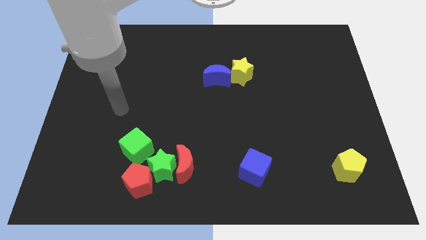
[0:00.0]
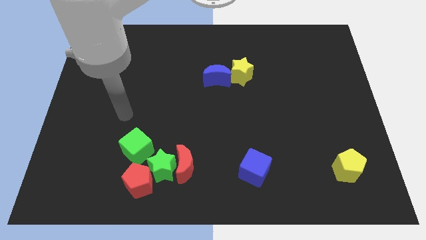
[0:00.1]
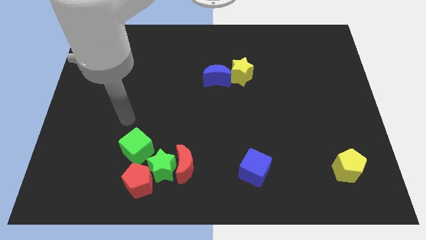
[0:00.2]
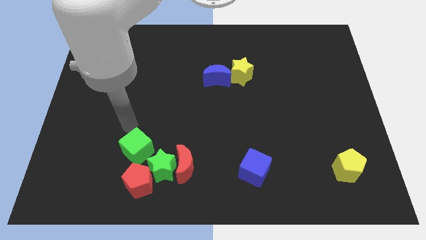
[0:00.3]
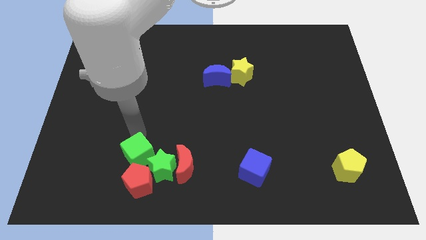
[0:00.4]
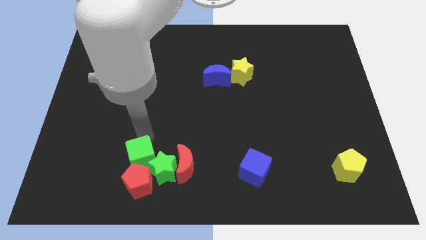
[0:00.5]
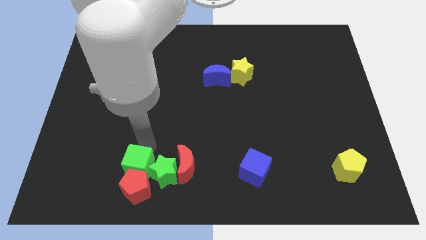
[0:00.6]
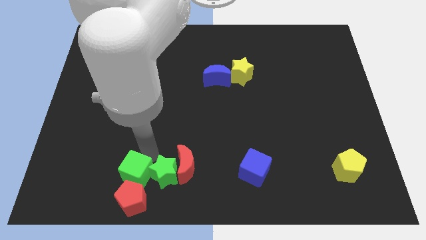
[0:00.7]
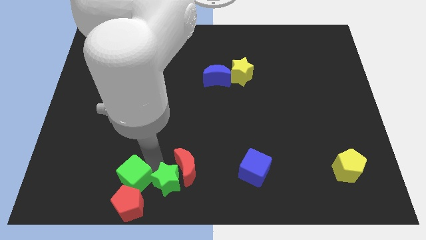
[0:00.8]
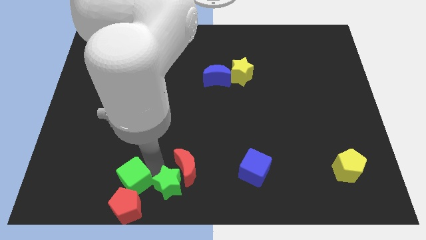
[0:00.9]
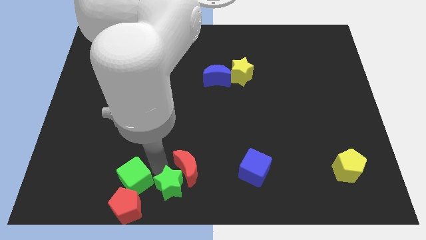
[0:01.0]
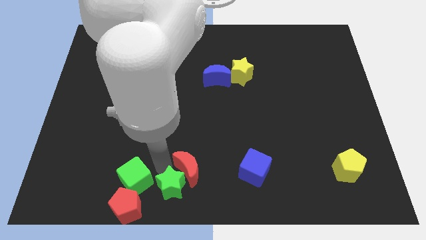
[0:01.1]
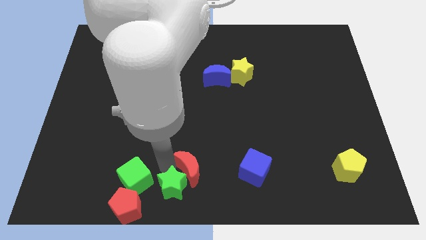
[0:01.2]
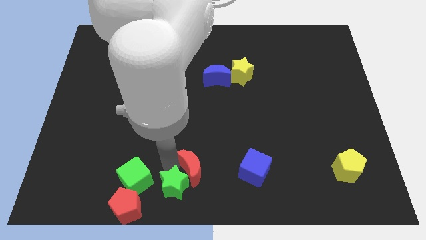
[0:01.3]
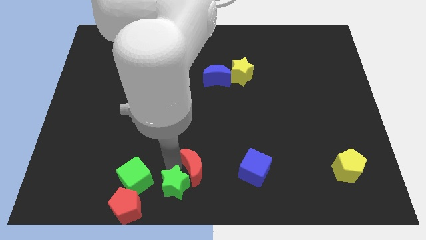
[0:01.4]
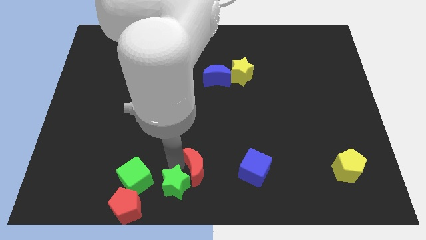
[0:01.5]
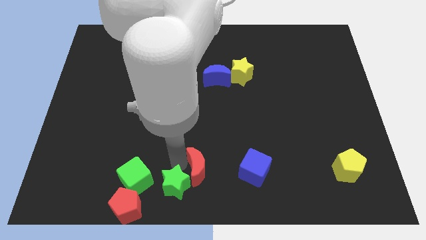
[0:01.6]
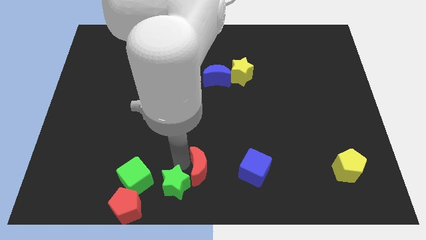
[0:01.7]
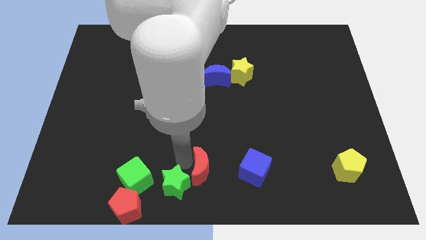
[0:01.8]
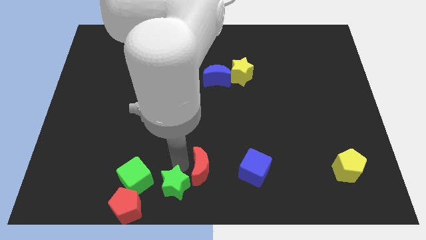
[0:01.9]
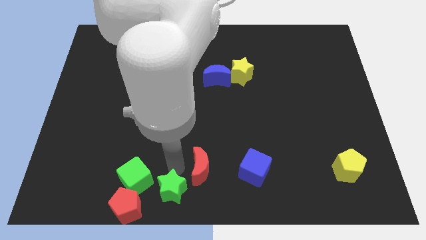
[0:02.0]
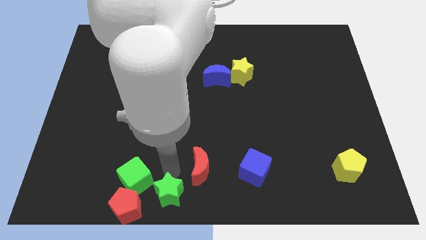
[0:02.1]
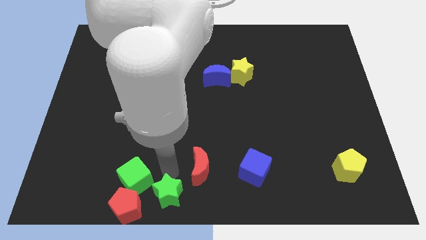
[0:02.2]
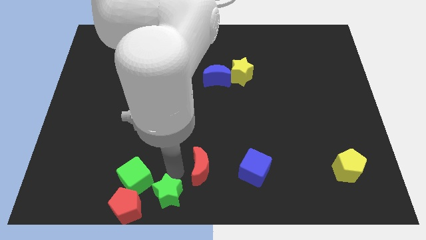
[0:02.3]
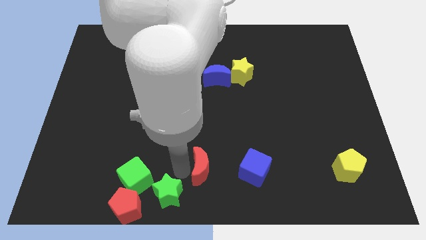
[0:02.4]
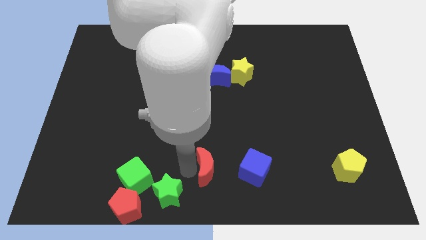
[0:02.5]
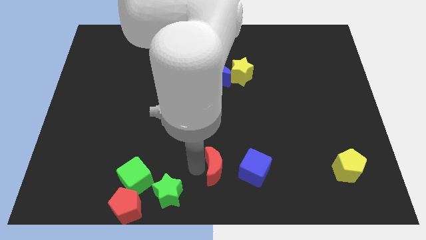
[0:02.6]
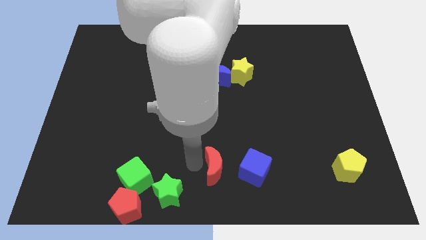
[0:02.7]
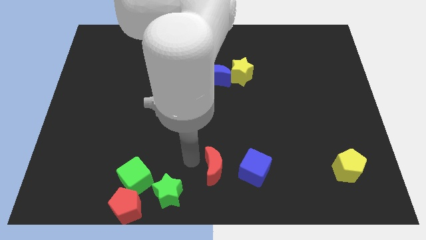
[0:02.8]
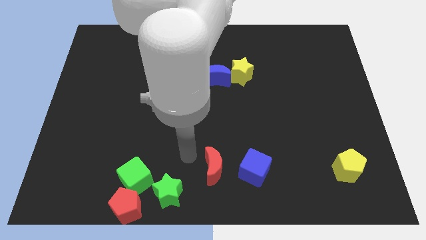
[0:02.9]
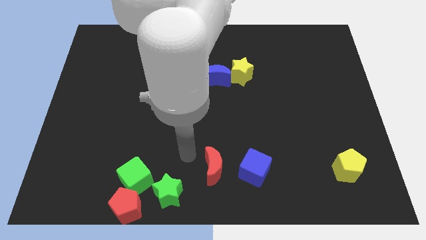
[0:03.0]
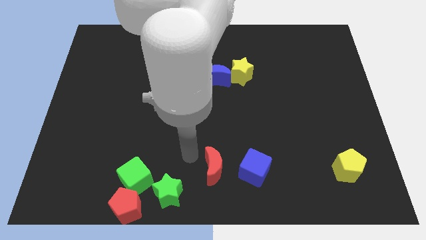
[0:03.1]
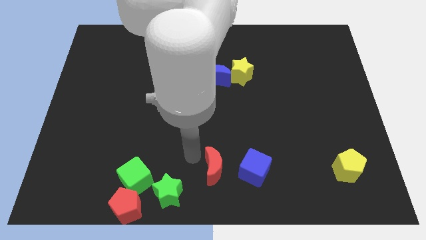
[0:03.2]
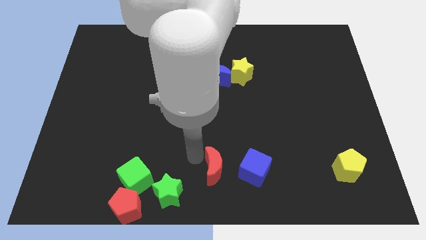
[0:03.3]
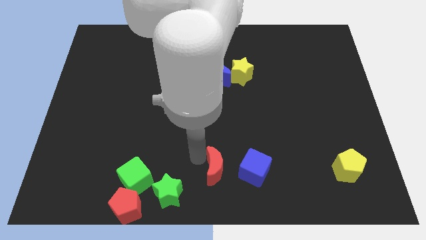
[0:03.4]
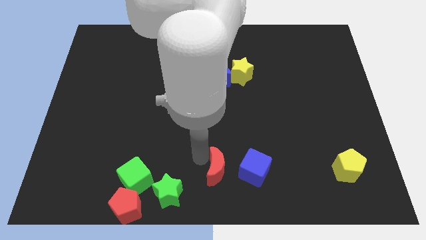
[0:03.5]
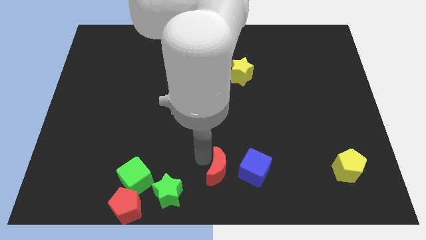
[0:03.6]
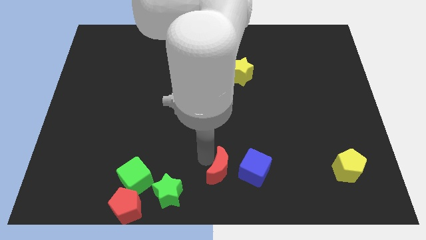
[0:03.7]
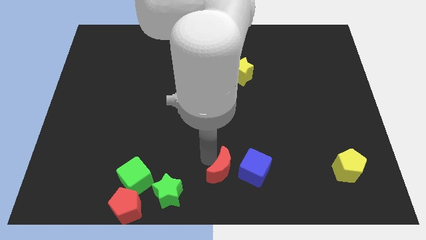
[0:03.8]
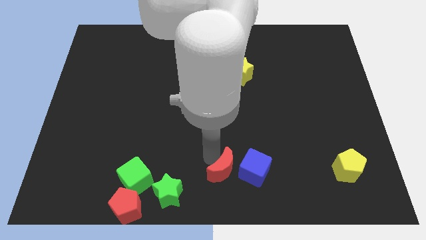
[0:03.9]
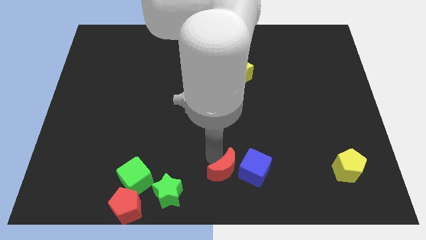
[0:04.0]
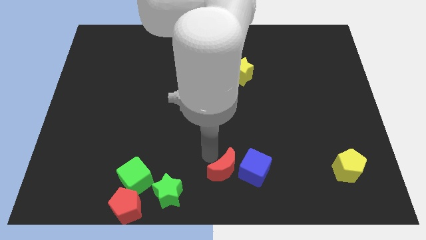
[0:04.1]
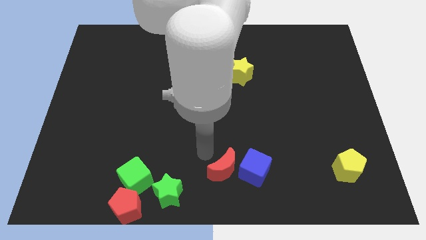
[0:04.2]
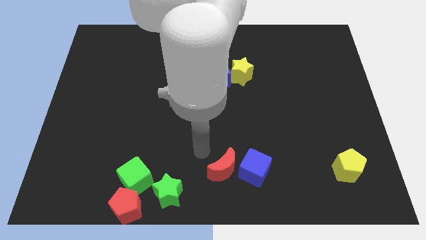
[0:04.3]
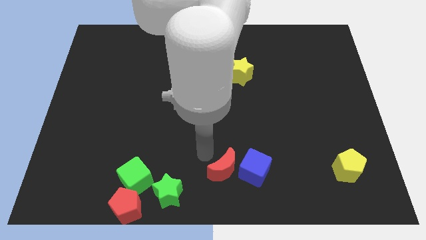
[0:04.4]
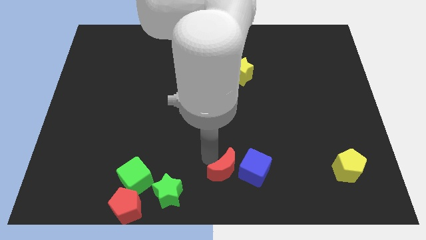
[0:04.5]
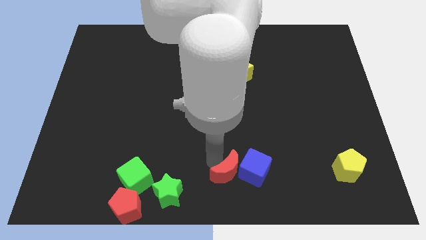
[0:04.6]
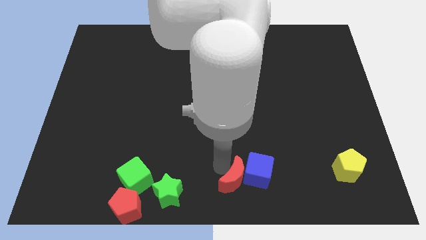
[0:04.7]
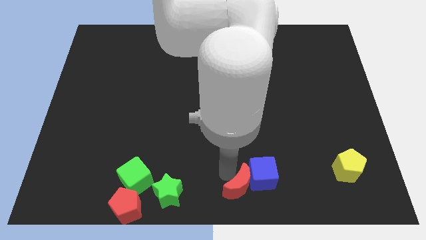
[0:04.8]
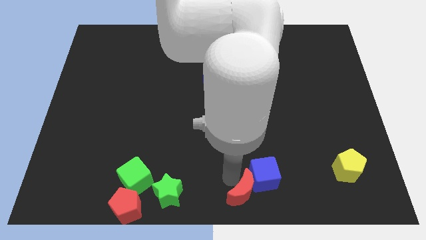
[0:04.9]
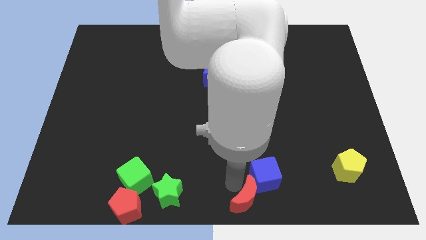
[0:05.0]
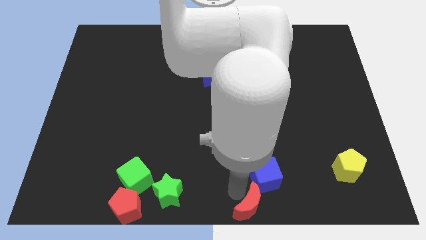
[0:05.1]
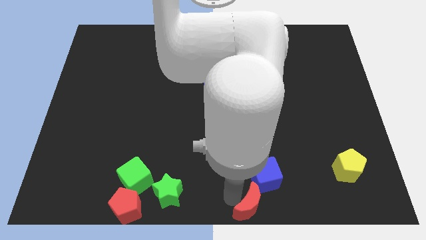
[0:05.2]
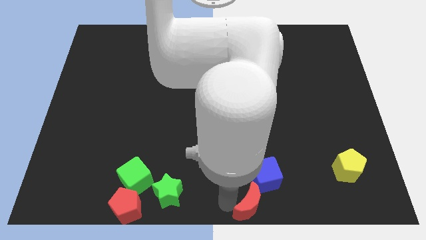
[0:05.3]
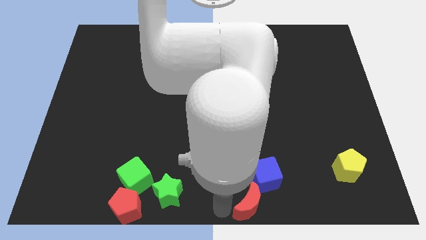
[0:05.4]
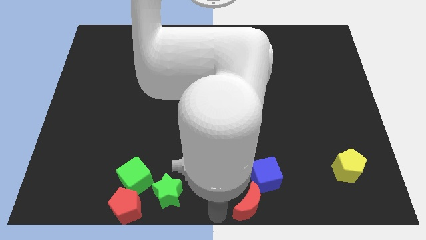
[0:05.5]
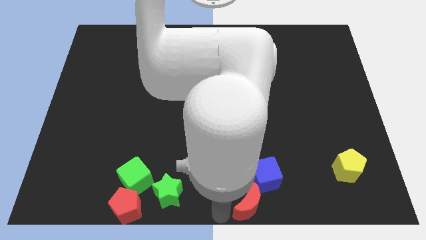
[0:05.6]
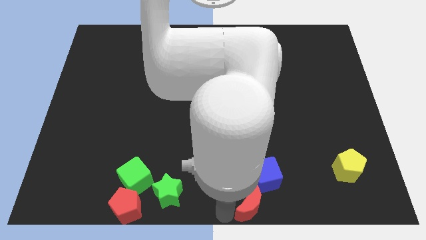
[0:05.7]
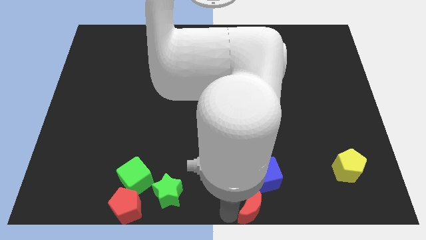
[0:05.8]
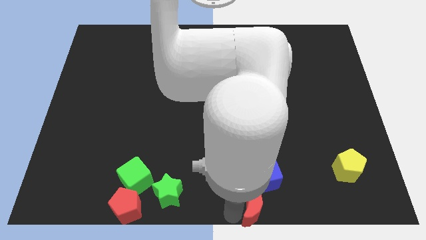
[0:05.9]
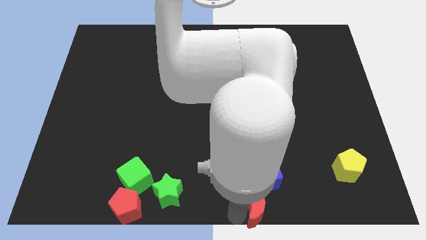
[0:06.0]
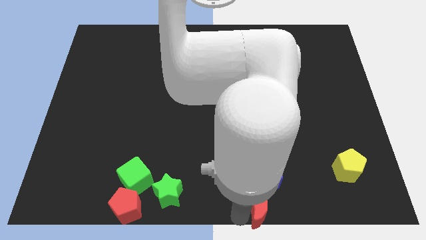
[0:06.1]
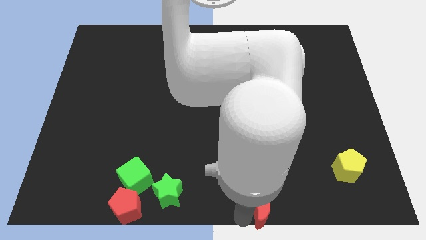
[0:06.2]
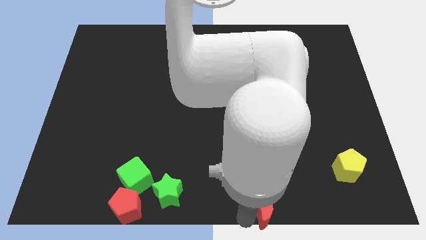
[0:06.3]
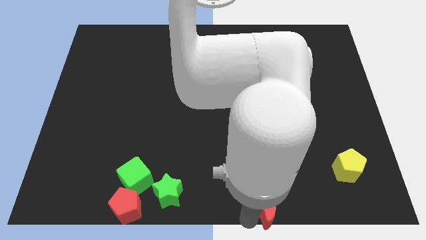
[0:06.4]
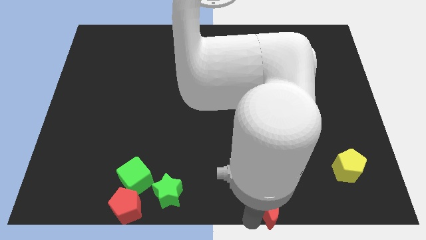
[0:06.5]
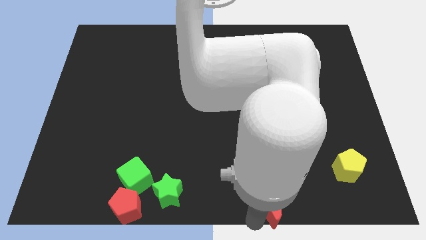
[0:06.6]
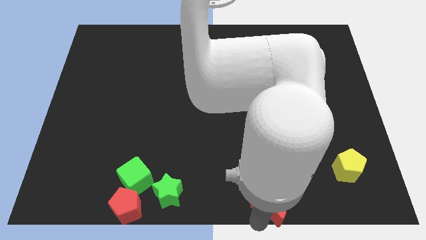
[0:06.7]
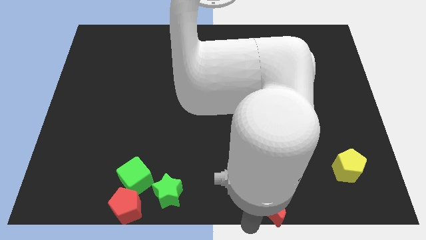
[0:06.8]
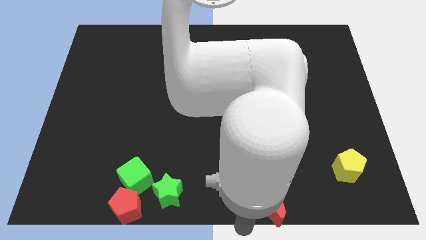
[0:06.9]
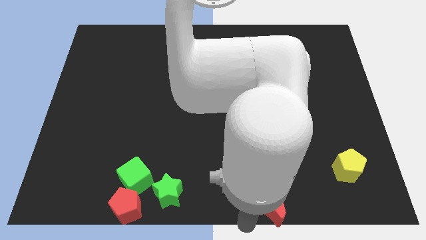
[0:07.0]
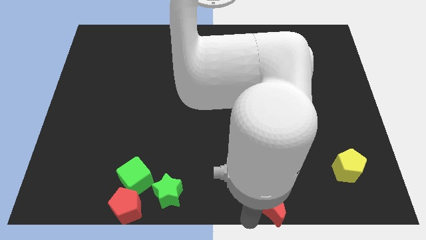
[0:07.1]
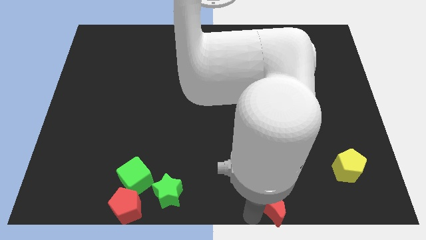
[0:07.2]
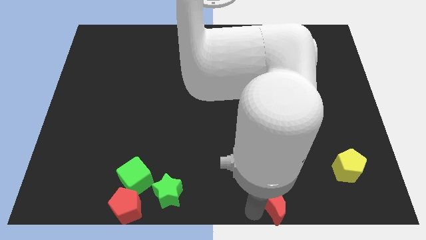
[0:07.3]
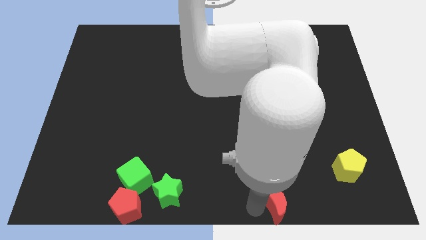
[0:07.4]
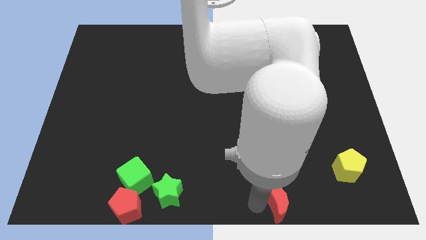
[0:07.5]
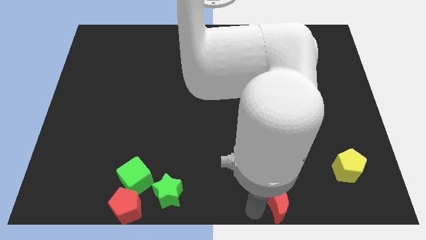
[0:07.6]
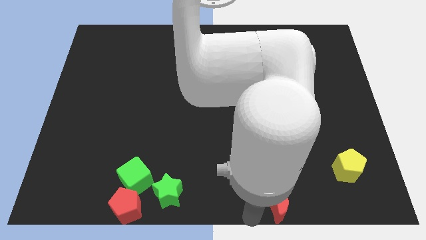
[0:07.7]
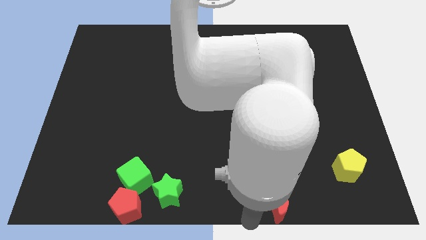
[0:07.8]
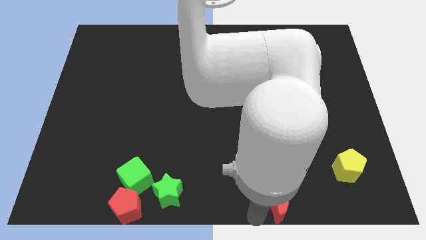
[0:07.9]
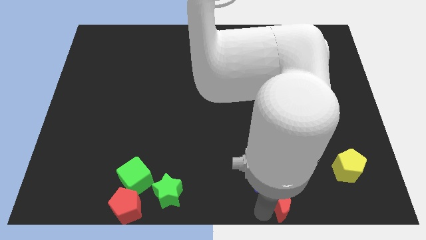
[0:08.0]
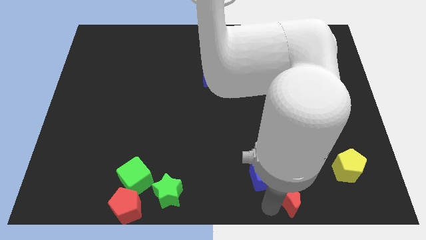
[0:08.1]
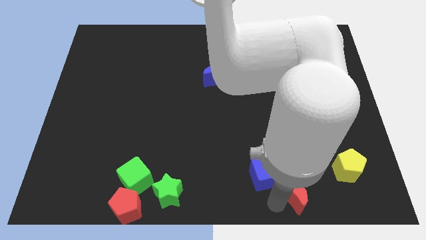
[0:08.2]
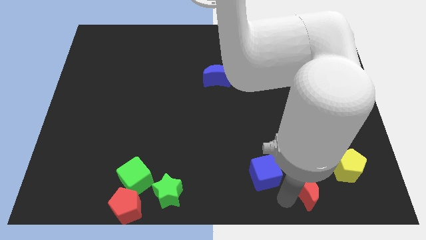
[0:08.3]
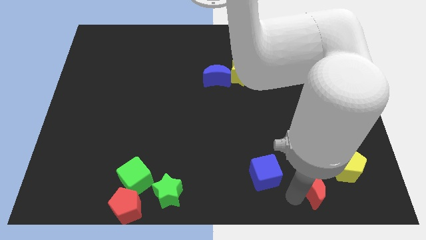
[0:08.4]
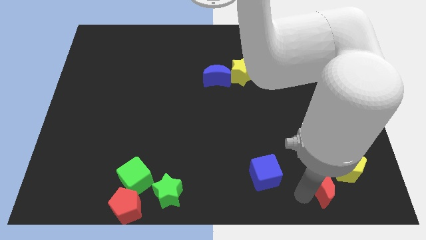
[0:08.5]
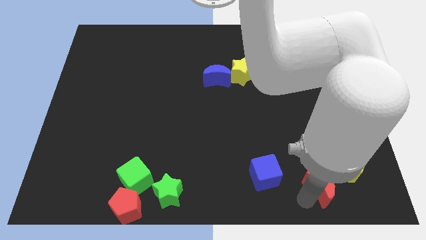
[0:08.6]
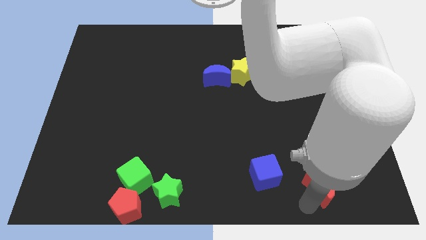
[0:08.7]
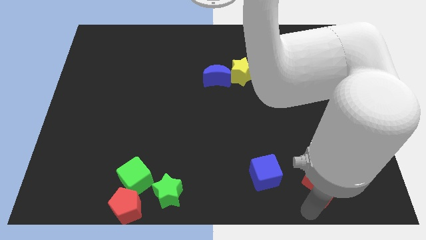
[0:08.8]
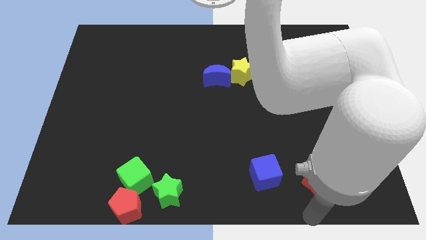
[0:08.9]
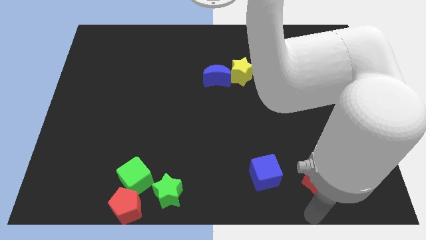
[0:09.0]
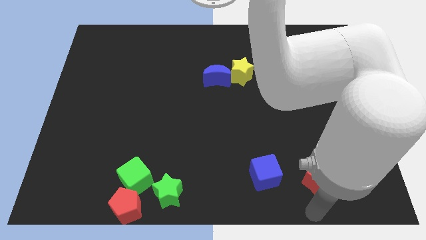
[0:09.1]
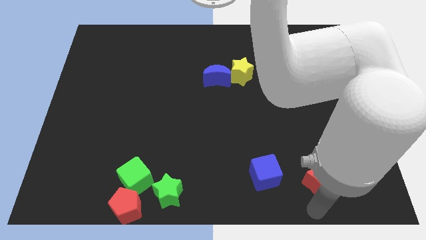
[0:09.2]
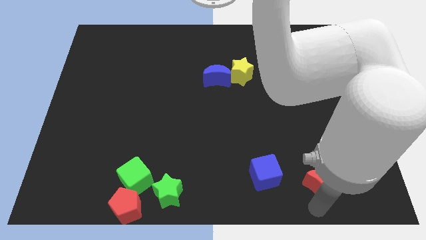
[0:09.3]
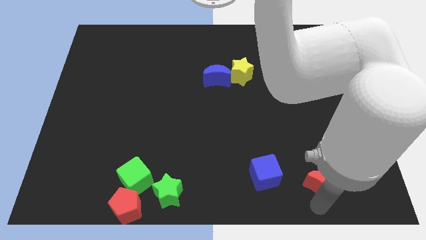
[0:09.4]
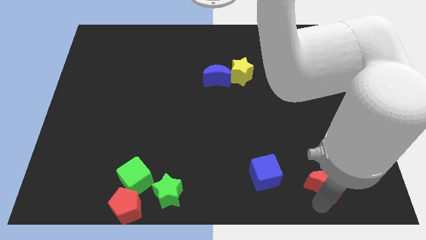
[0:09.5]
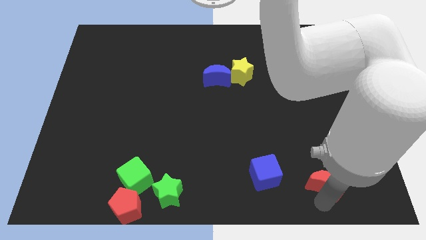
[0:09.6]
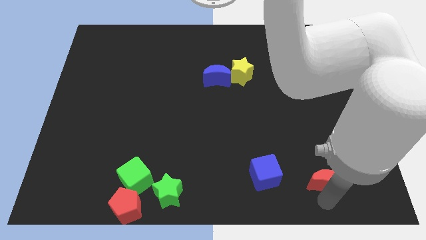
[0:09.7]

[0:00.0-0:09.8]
push the red moon towards the yellow pentagon
